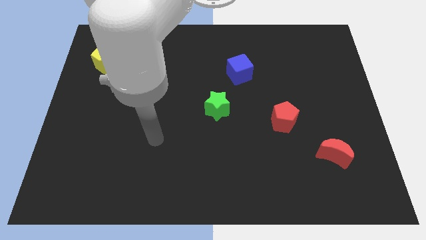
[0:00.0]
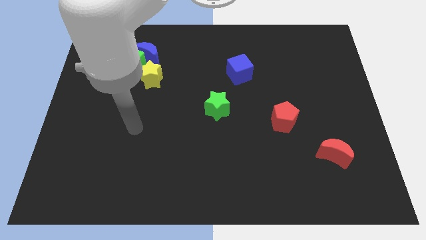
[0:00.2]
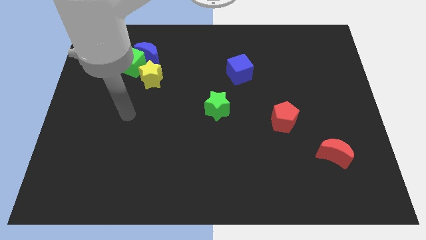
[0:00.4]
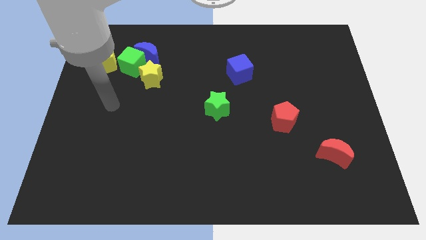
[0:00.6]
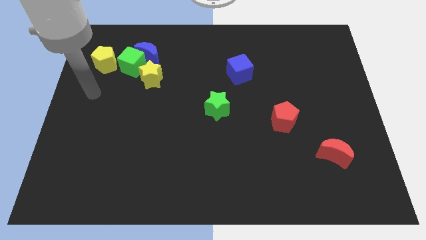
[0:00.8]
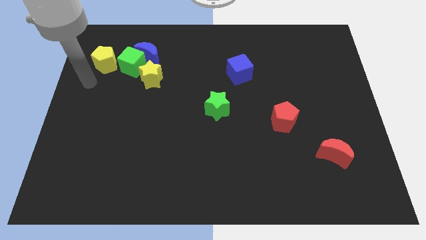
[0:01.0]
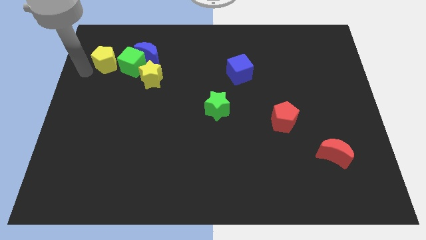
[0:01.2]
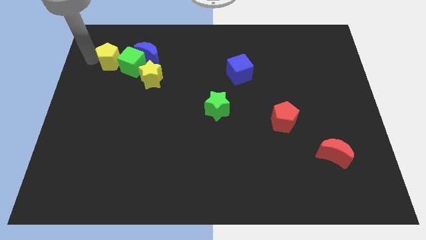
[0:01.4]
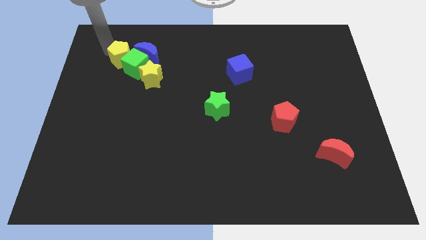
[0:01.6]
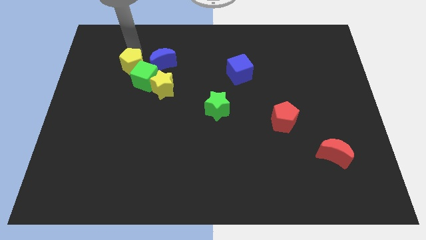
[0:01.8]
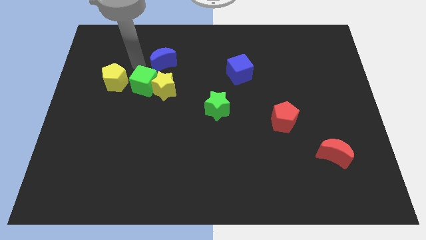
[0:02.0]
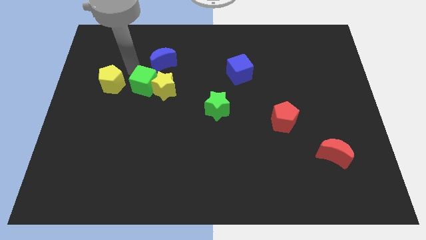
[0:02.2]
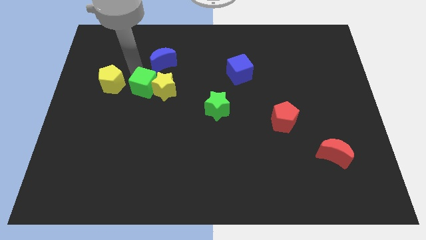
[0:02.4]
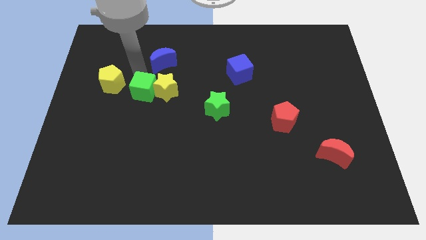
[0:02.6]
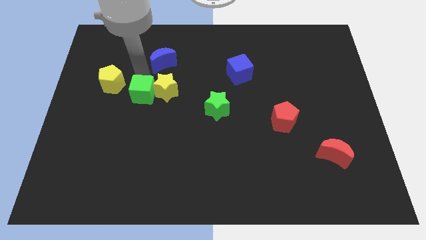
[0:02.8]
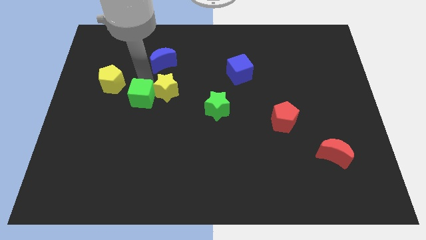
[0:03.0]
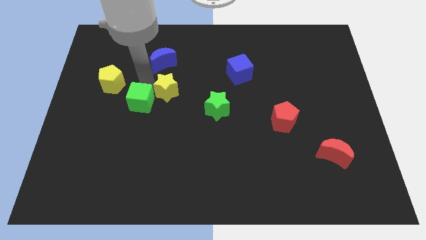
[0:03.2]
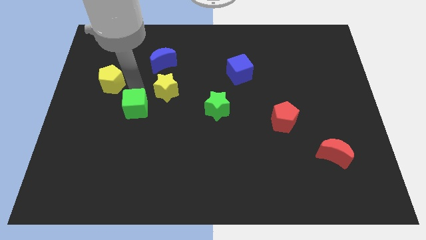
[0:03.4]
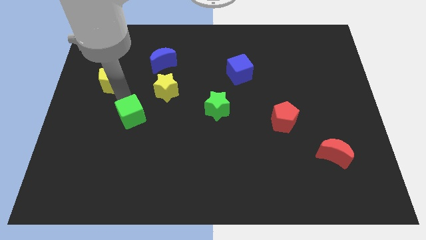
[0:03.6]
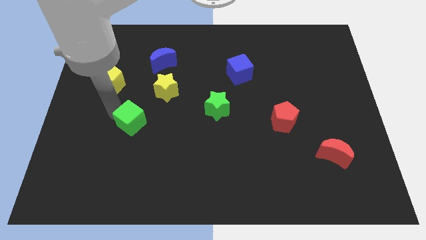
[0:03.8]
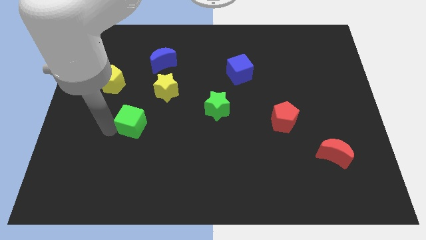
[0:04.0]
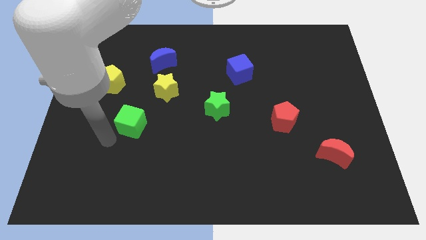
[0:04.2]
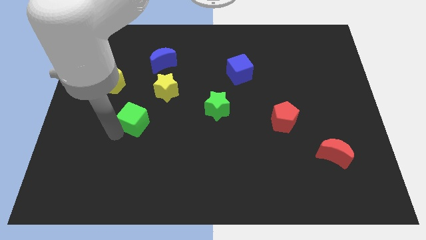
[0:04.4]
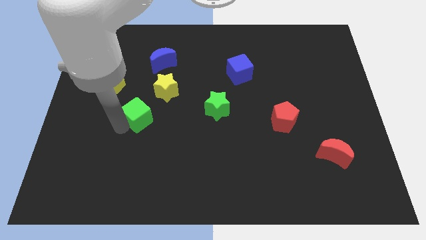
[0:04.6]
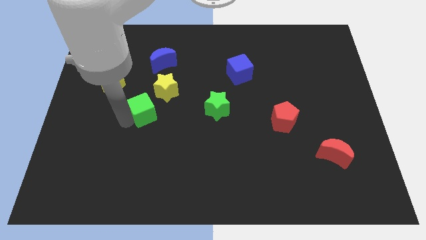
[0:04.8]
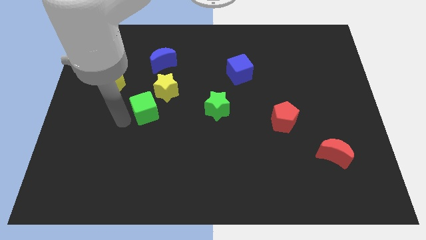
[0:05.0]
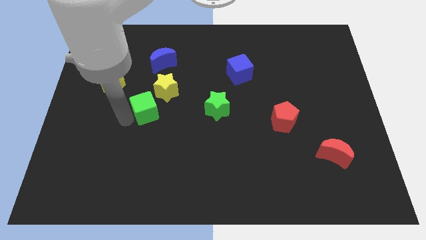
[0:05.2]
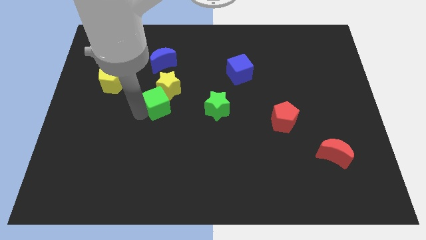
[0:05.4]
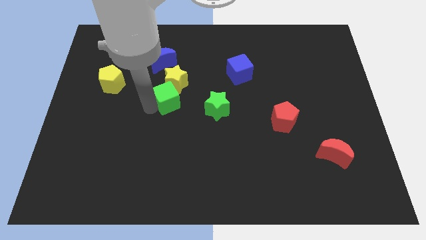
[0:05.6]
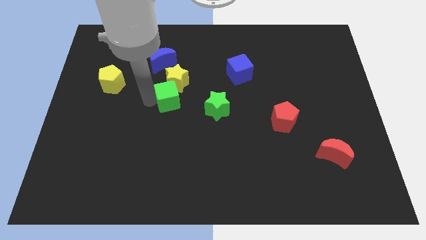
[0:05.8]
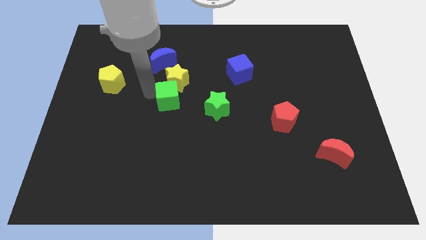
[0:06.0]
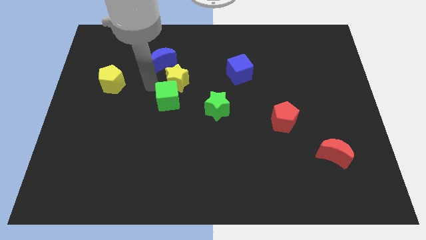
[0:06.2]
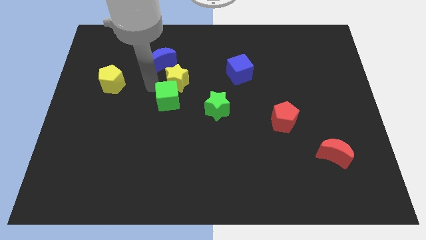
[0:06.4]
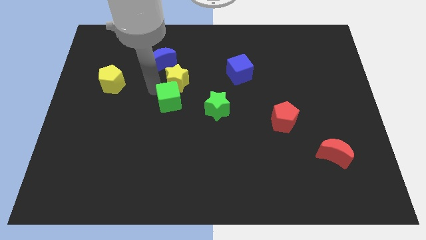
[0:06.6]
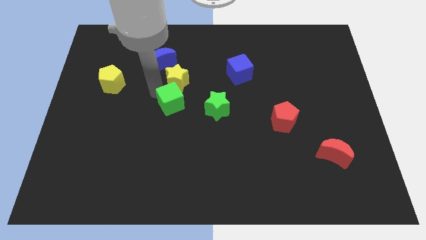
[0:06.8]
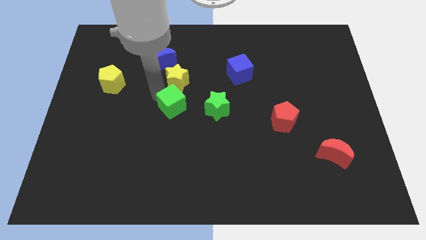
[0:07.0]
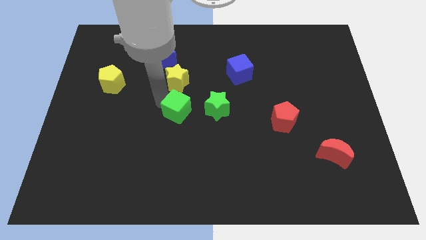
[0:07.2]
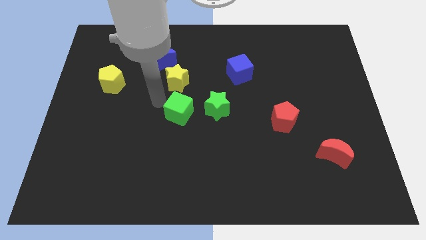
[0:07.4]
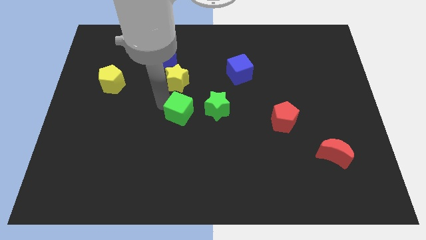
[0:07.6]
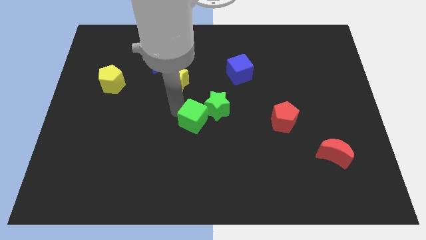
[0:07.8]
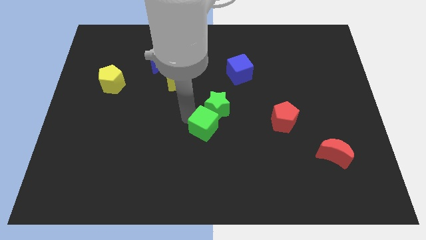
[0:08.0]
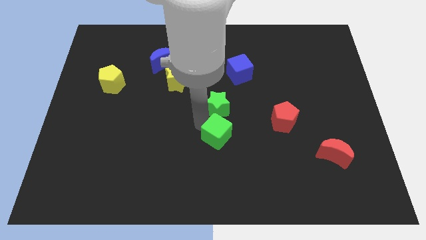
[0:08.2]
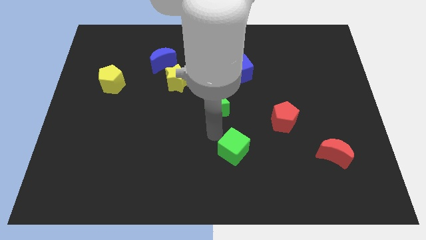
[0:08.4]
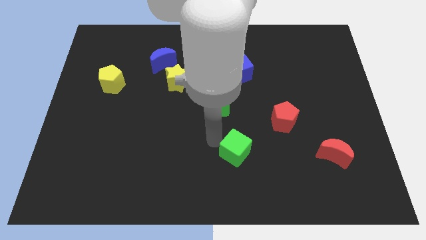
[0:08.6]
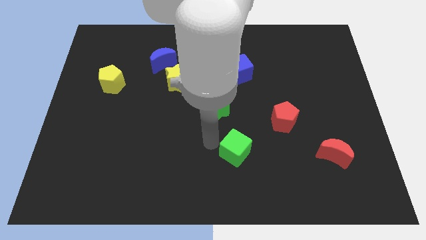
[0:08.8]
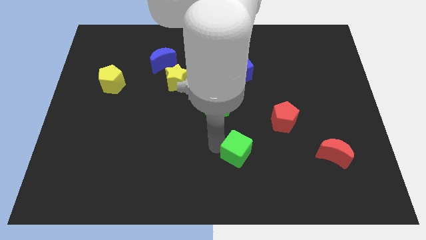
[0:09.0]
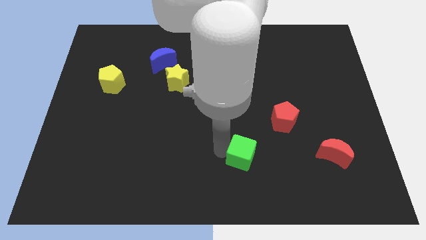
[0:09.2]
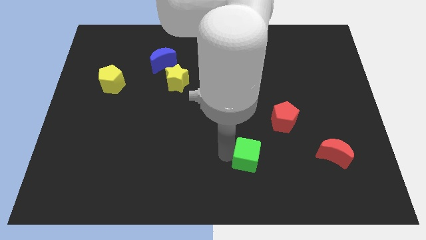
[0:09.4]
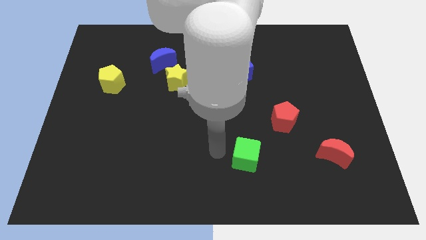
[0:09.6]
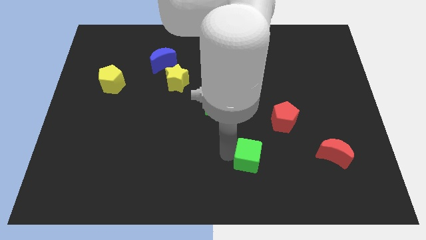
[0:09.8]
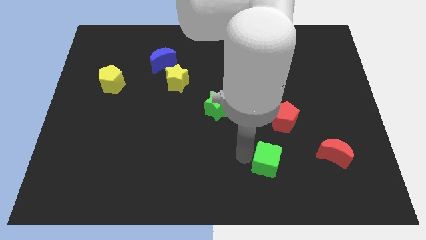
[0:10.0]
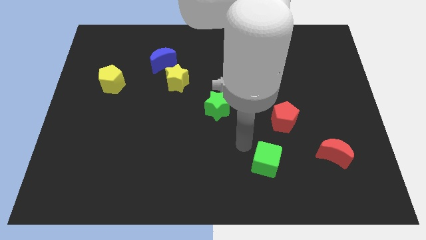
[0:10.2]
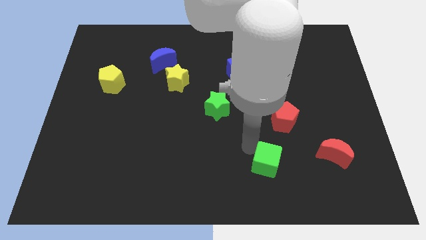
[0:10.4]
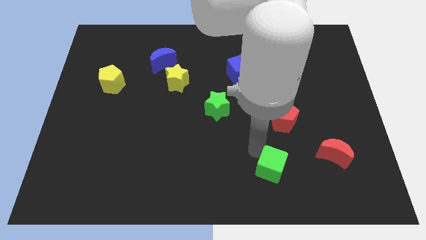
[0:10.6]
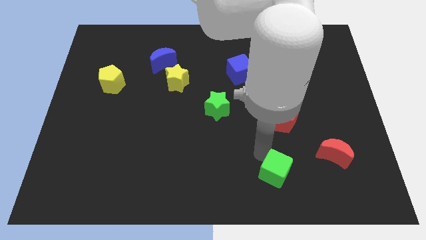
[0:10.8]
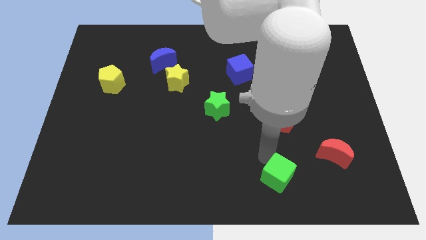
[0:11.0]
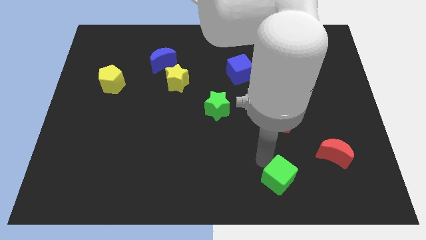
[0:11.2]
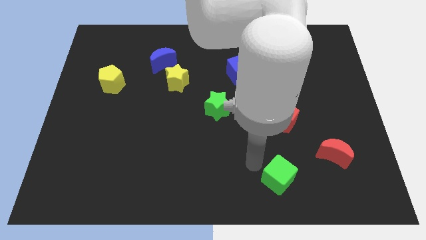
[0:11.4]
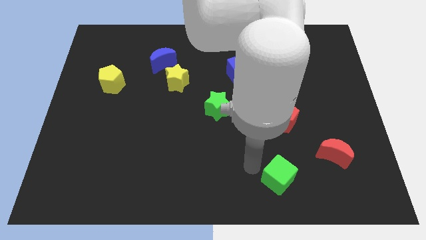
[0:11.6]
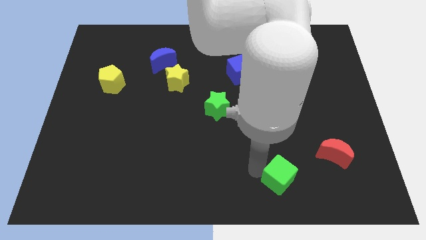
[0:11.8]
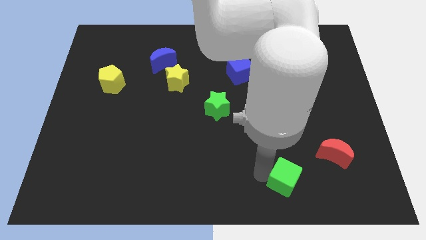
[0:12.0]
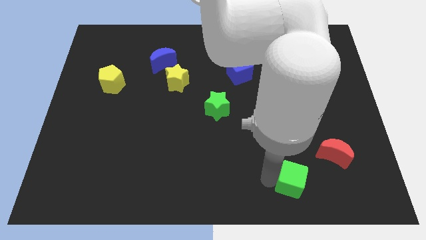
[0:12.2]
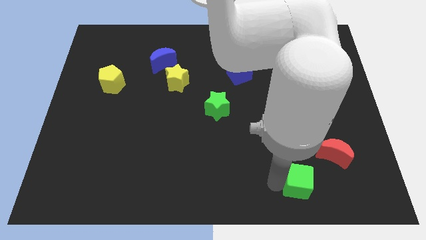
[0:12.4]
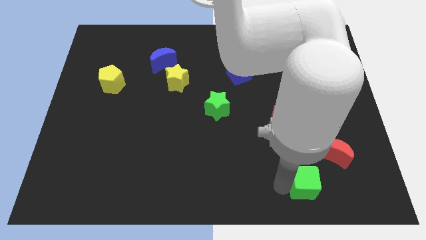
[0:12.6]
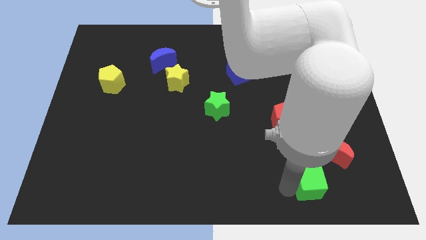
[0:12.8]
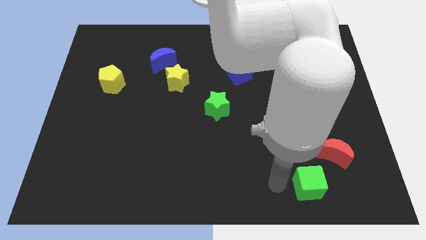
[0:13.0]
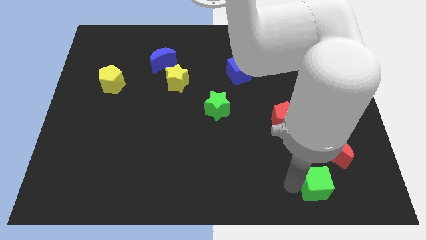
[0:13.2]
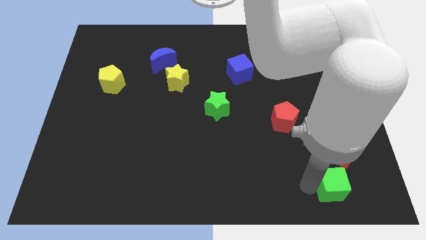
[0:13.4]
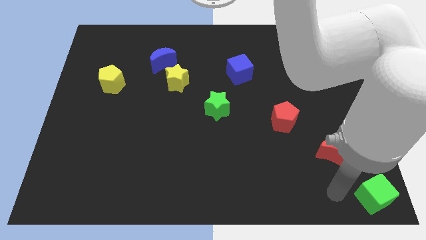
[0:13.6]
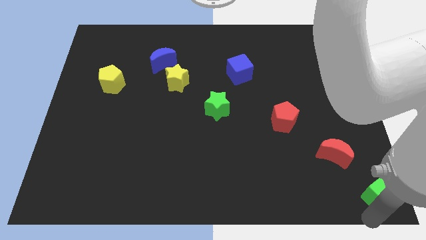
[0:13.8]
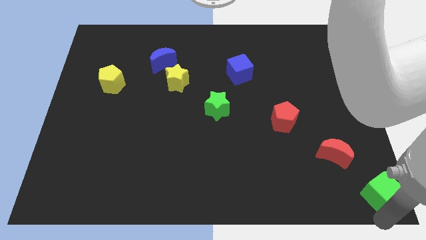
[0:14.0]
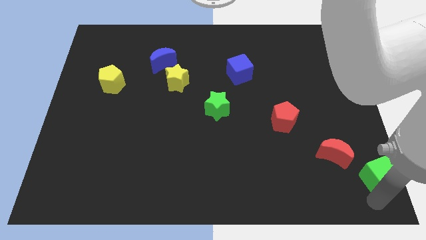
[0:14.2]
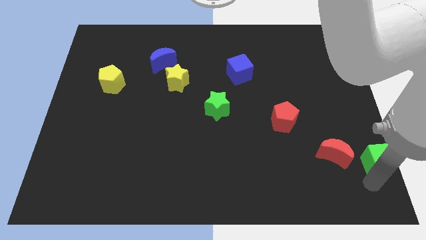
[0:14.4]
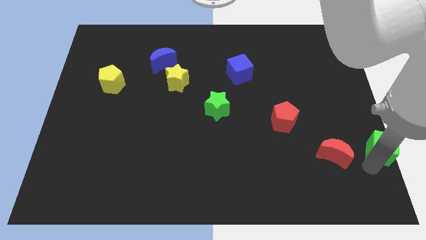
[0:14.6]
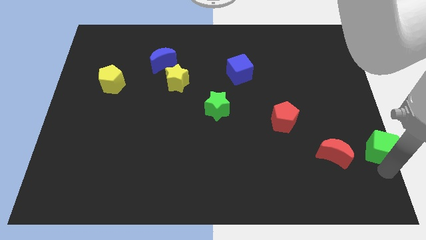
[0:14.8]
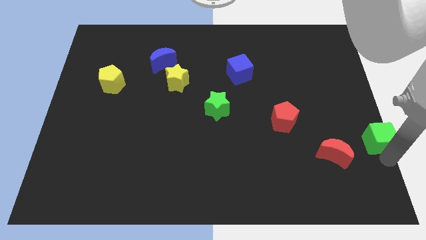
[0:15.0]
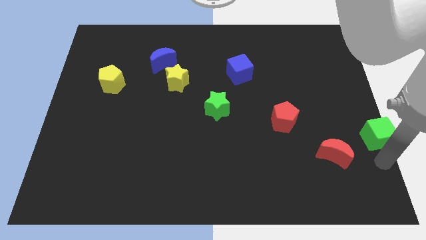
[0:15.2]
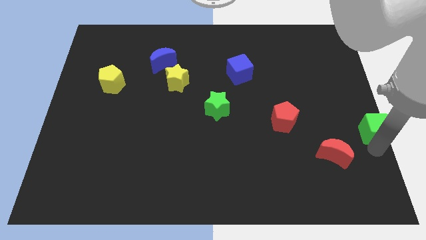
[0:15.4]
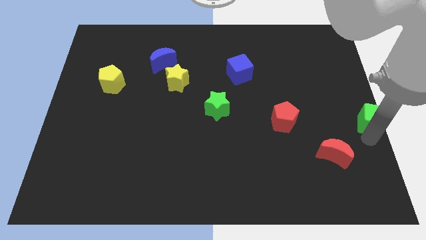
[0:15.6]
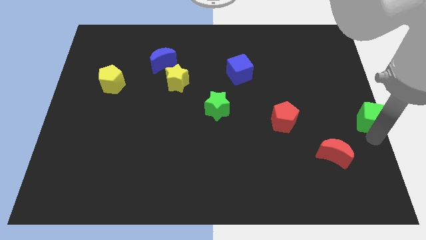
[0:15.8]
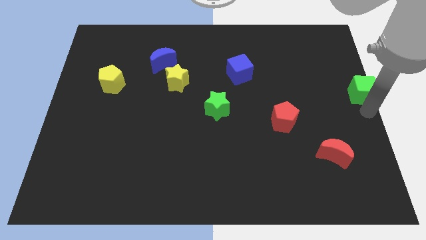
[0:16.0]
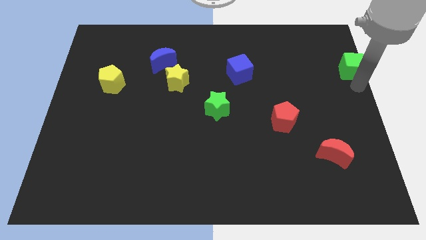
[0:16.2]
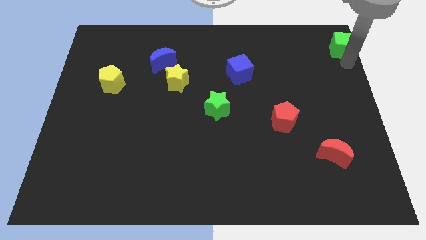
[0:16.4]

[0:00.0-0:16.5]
put the green cube to the top right of the board
